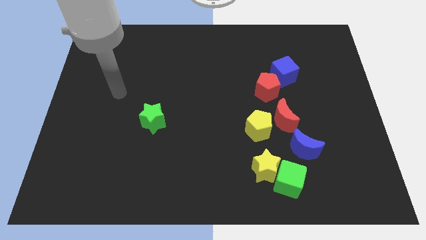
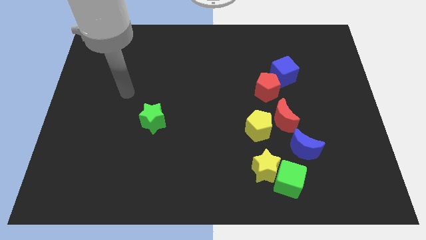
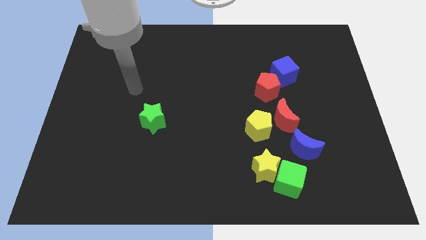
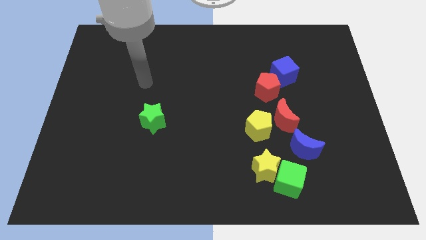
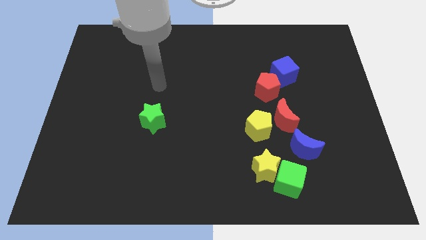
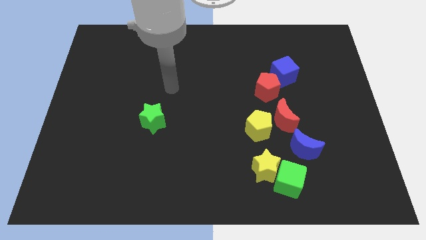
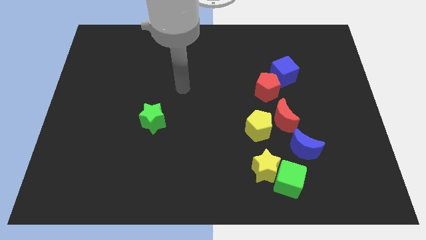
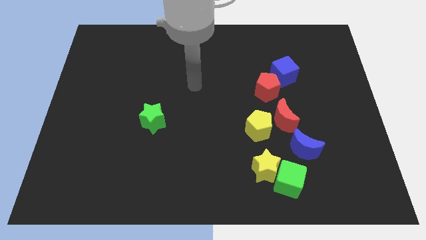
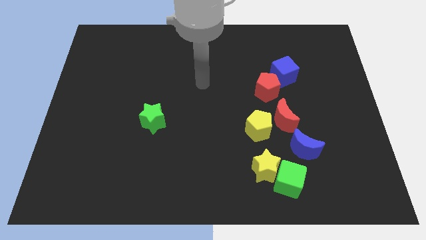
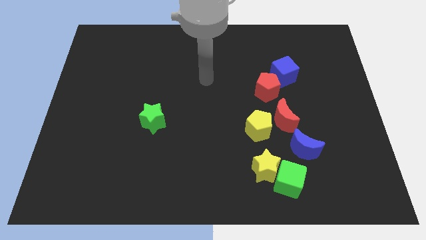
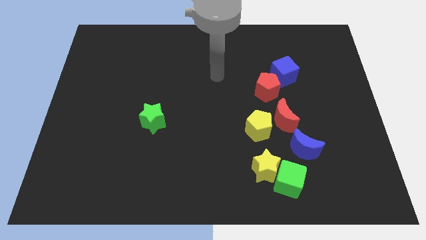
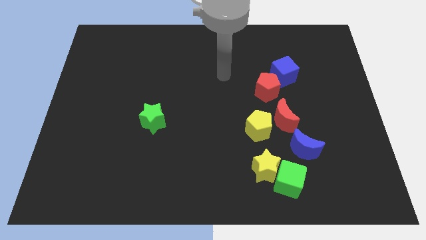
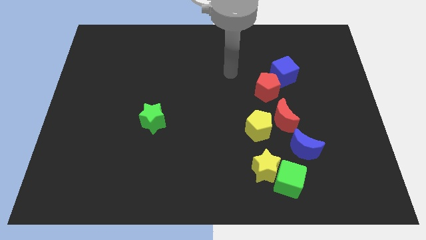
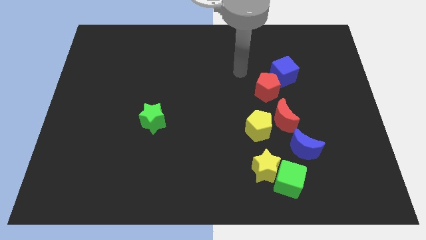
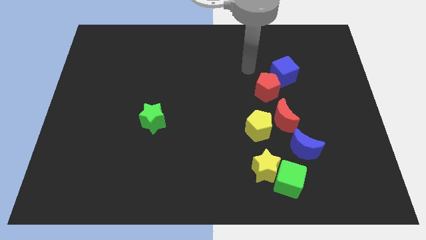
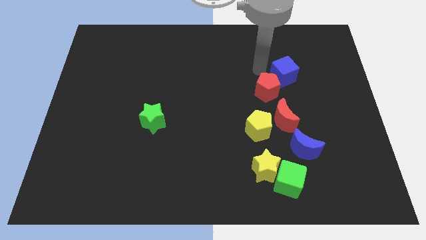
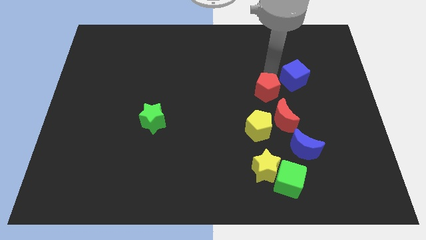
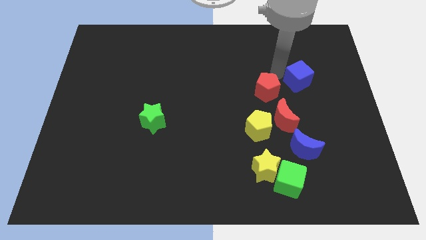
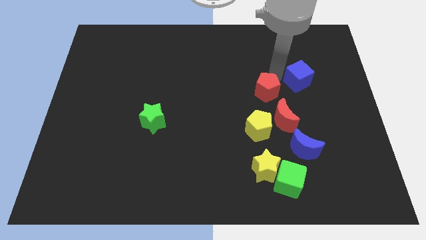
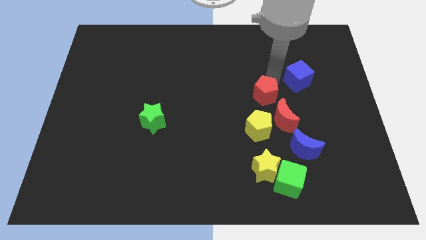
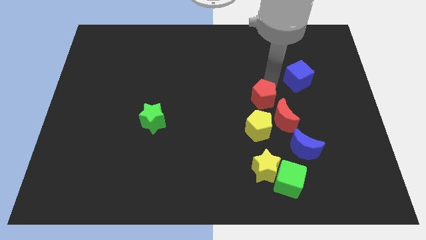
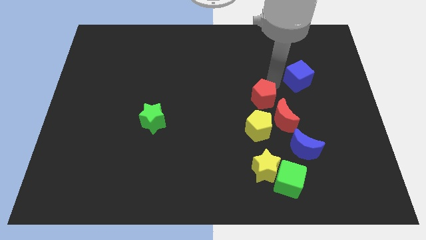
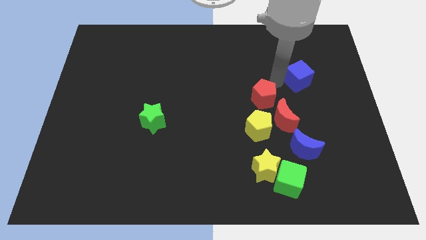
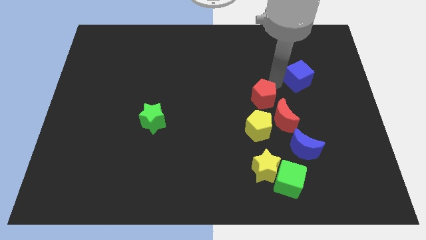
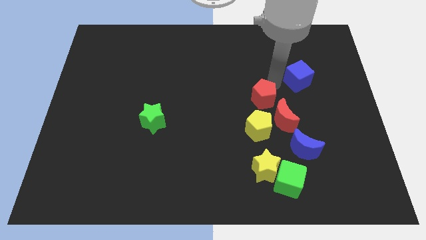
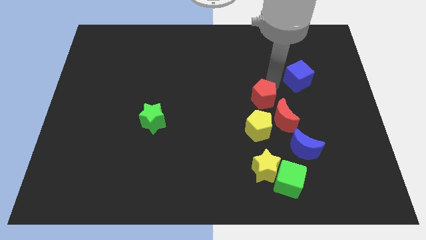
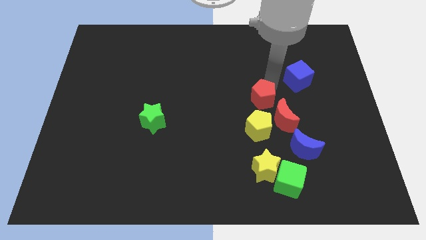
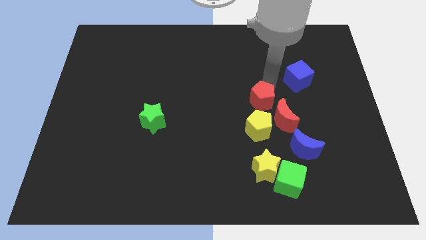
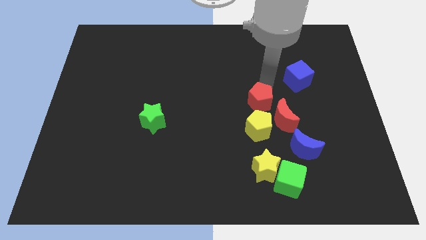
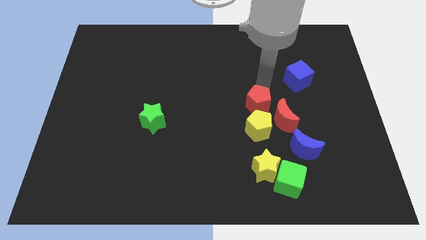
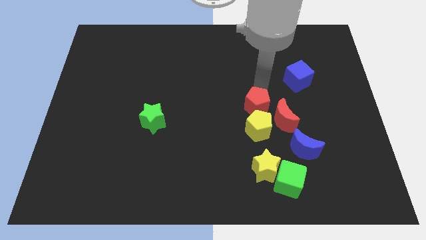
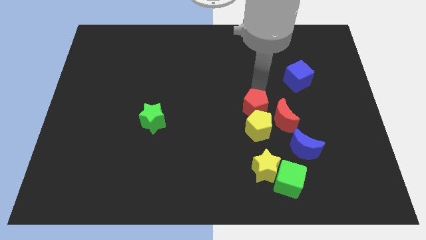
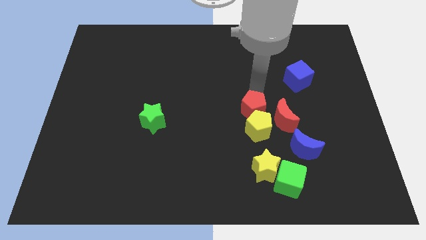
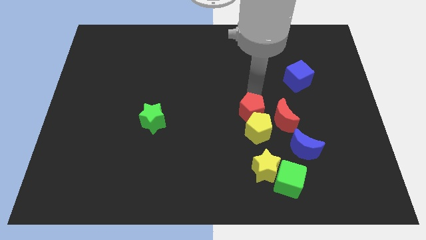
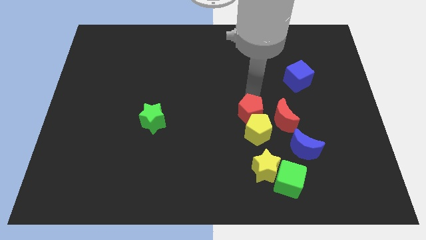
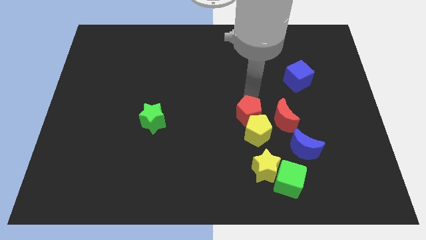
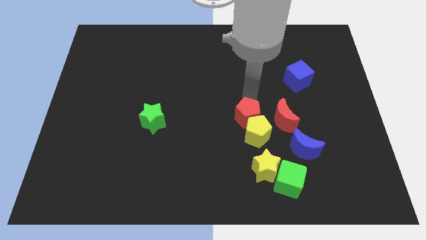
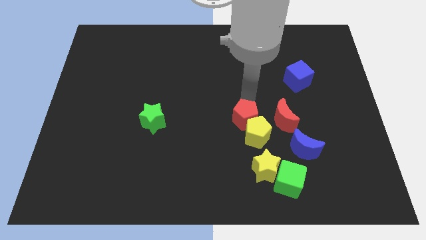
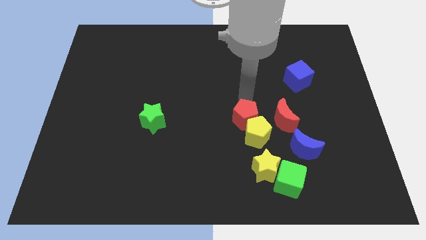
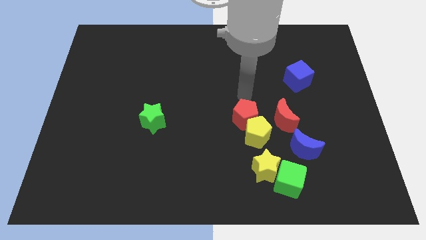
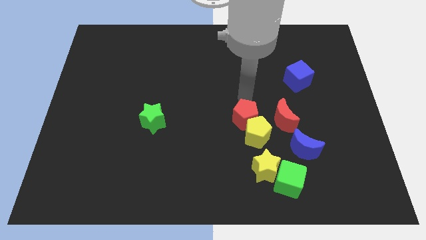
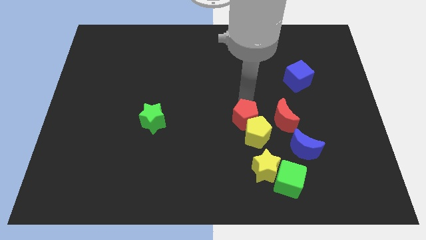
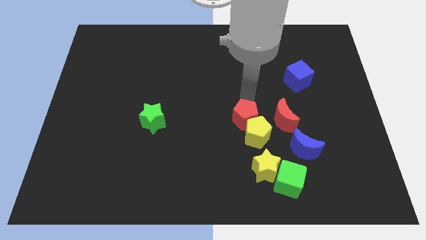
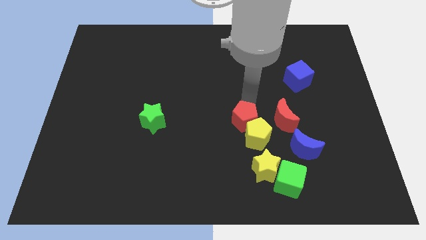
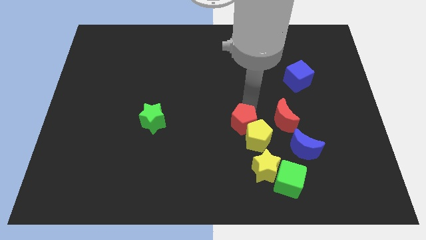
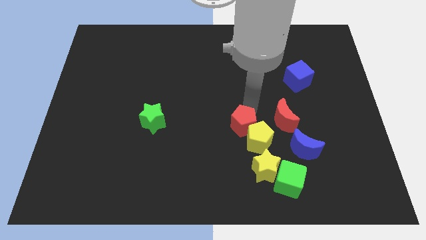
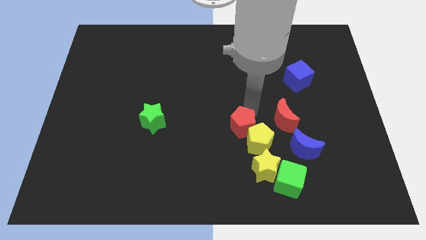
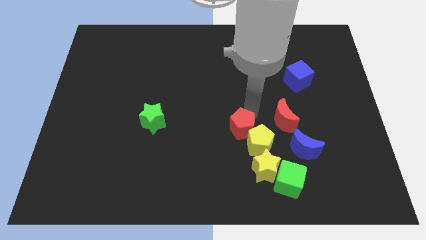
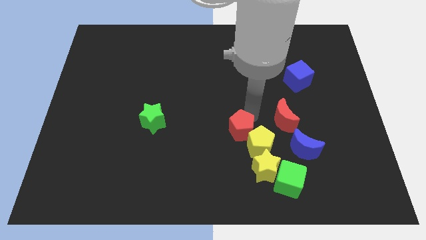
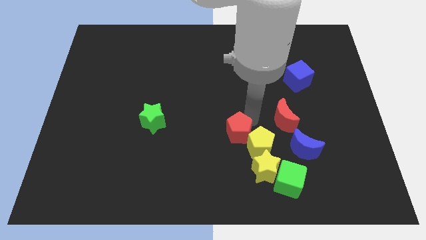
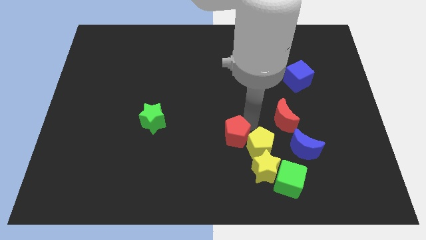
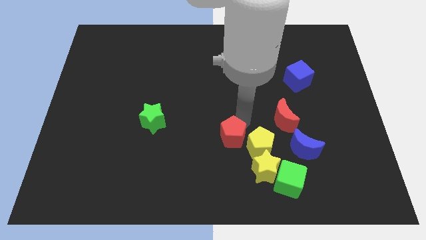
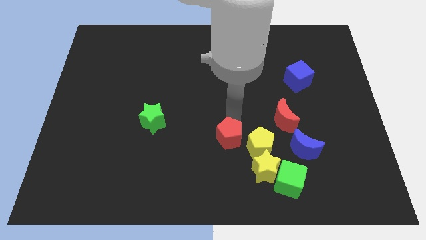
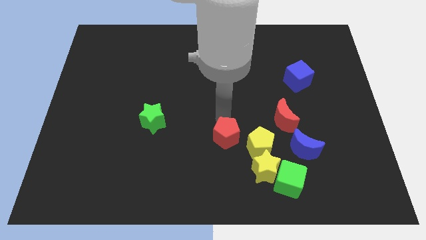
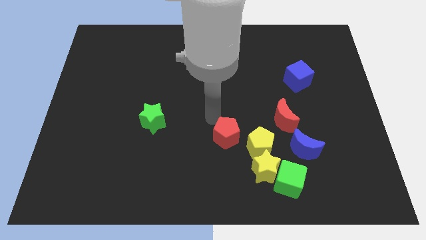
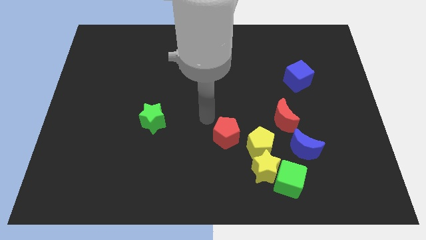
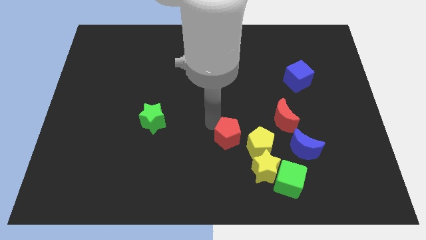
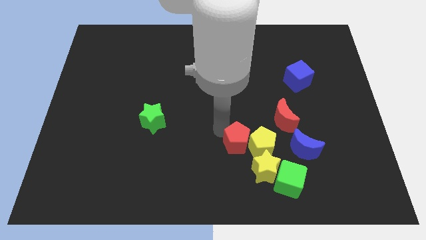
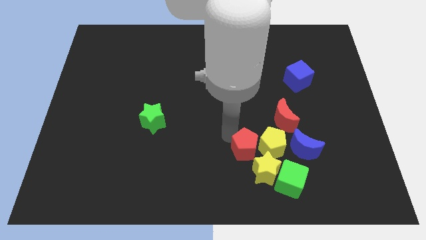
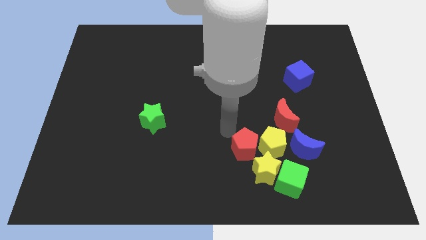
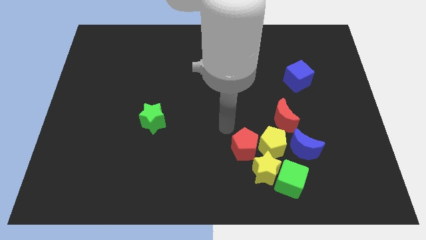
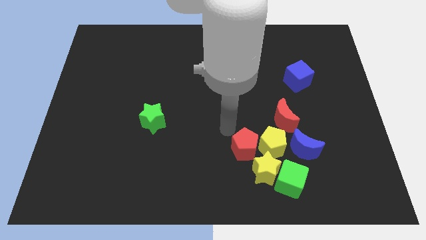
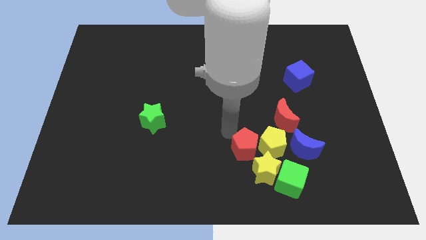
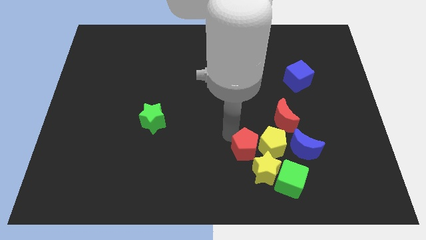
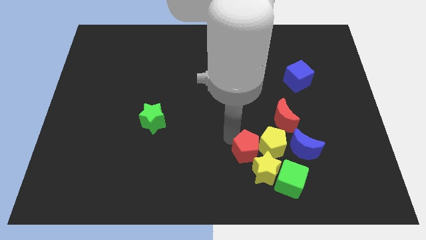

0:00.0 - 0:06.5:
slide the red pentagon next to the yellow star
